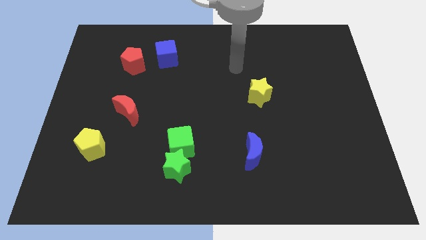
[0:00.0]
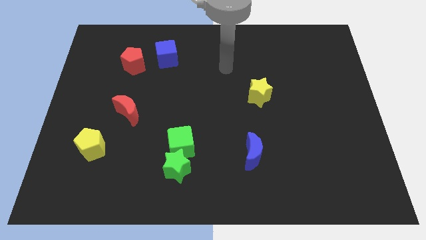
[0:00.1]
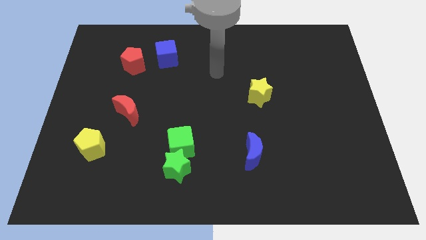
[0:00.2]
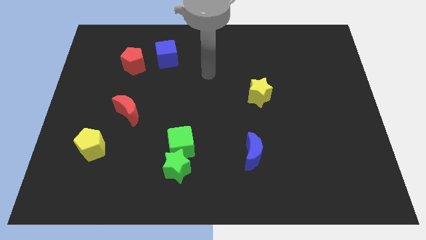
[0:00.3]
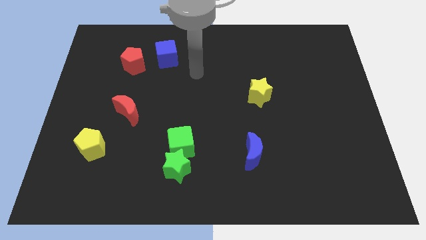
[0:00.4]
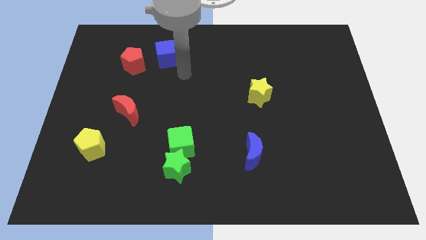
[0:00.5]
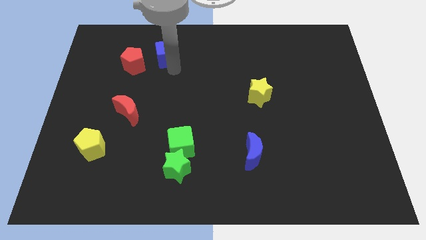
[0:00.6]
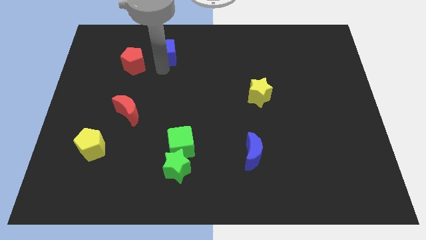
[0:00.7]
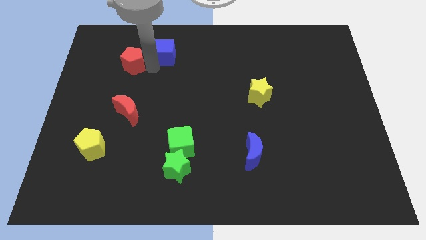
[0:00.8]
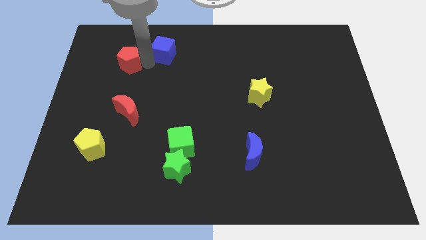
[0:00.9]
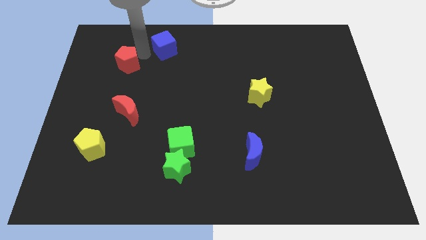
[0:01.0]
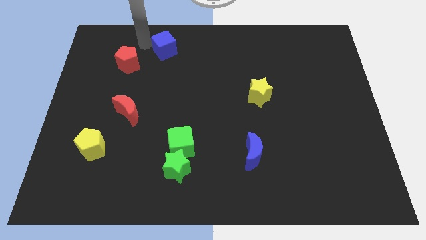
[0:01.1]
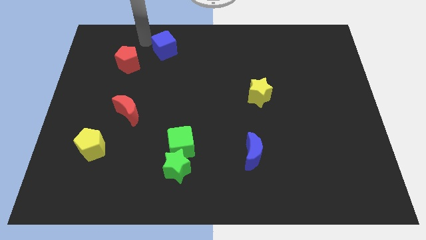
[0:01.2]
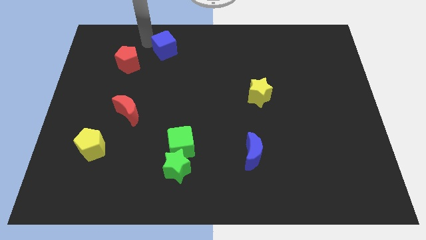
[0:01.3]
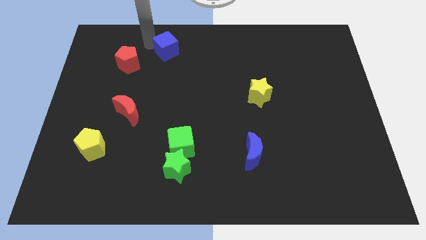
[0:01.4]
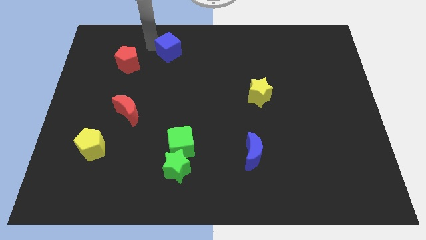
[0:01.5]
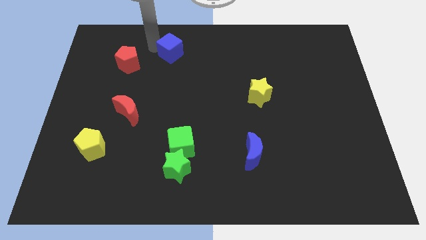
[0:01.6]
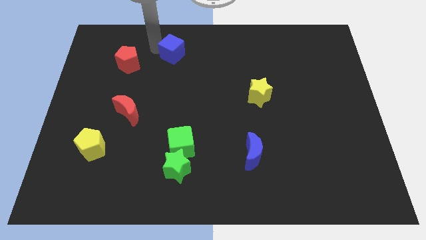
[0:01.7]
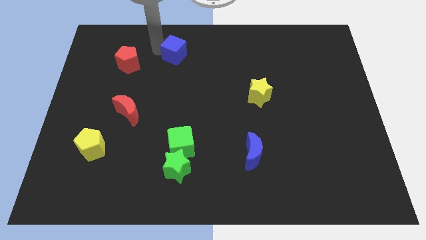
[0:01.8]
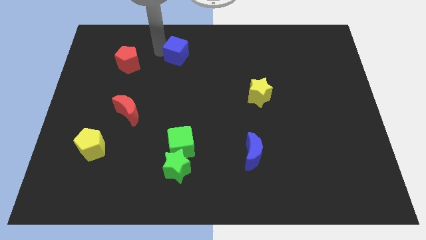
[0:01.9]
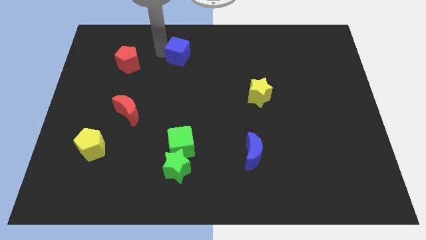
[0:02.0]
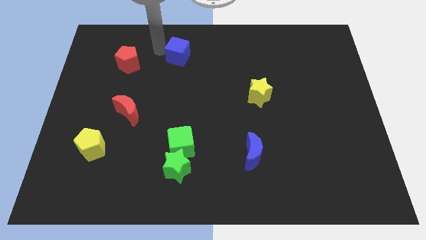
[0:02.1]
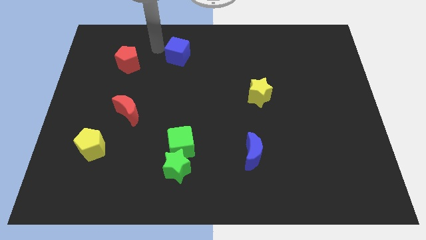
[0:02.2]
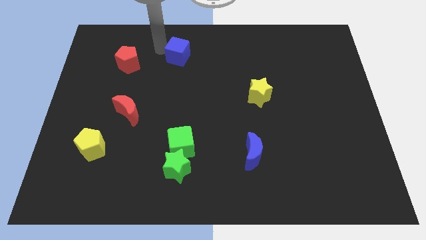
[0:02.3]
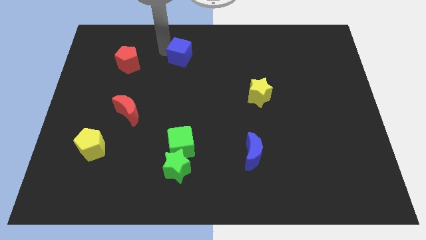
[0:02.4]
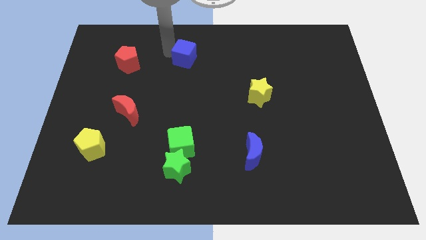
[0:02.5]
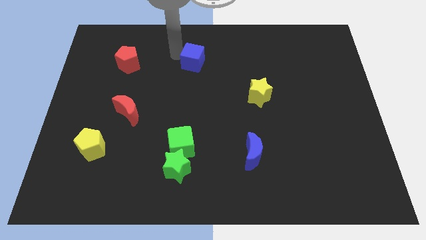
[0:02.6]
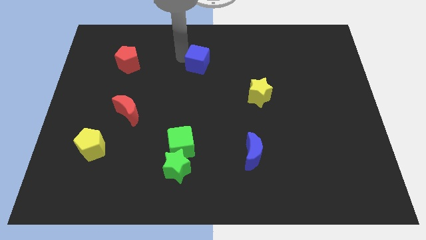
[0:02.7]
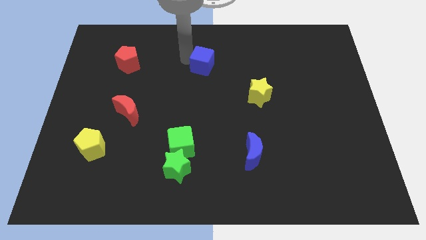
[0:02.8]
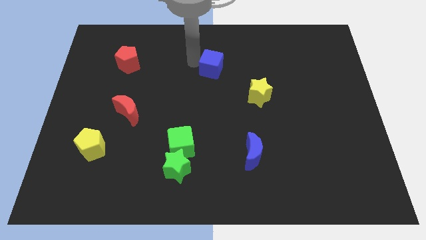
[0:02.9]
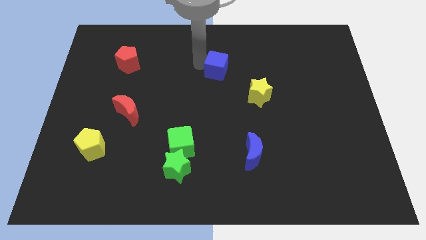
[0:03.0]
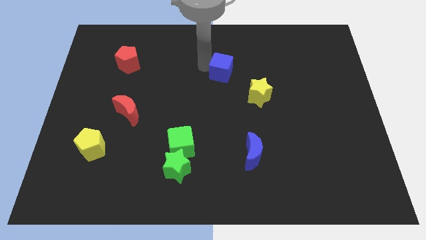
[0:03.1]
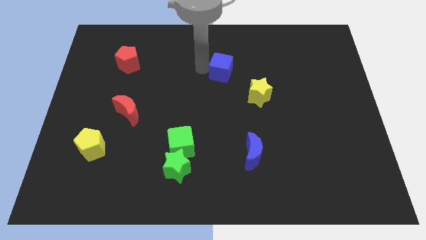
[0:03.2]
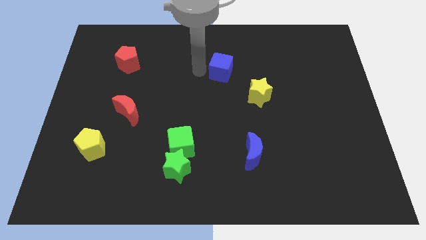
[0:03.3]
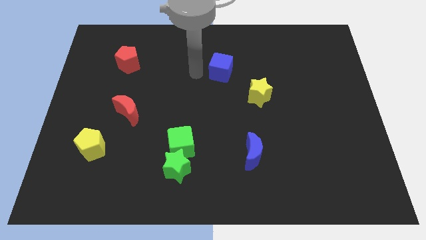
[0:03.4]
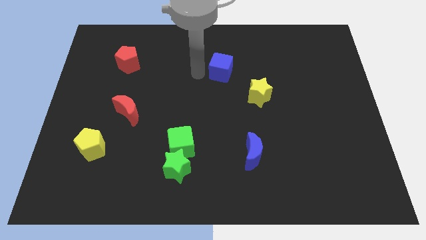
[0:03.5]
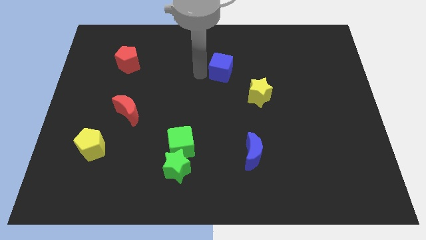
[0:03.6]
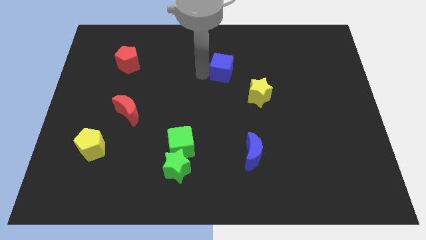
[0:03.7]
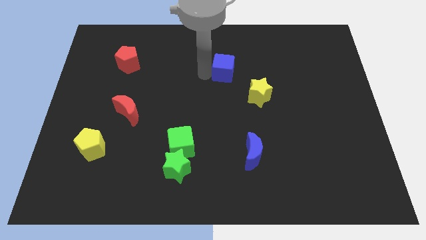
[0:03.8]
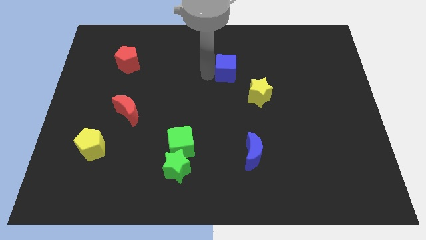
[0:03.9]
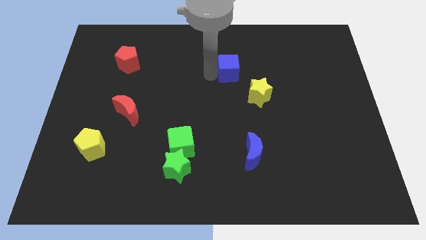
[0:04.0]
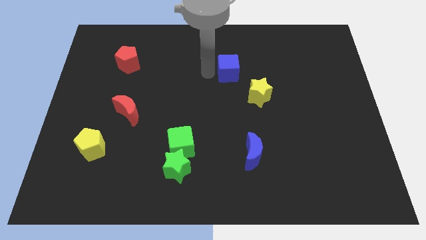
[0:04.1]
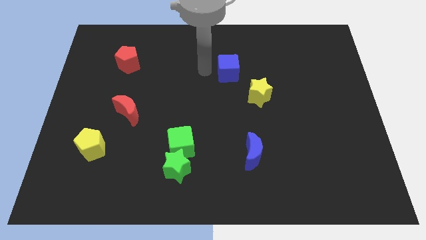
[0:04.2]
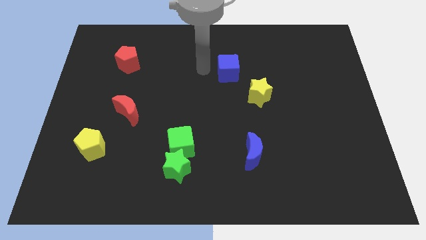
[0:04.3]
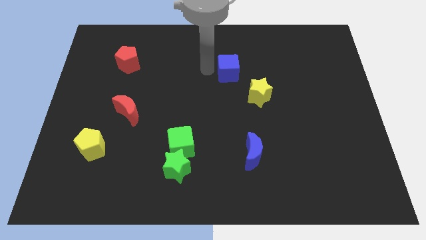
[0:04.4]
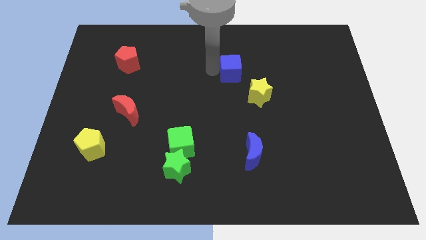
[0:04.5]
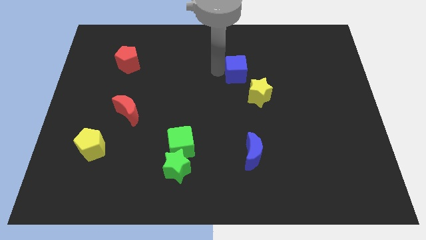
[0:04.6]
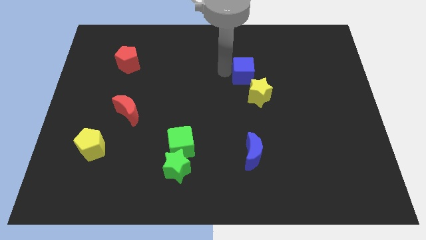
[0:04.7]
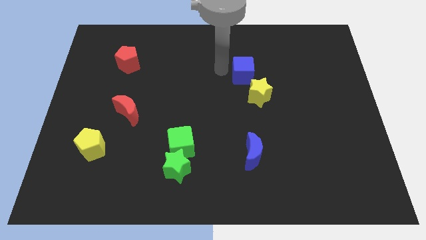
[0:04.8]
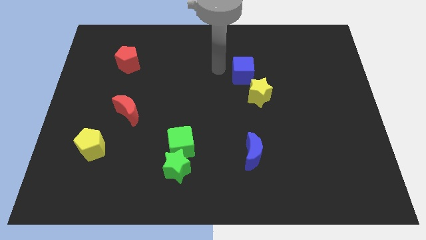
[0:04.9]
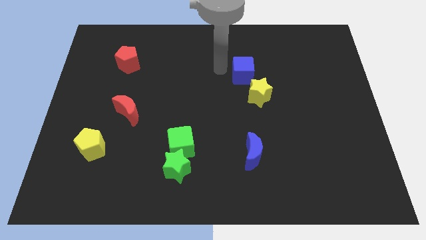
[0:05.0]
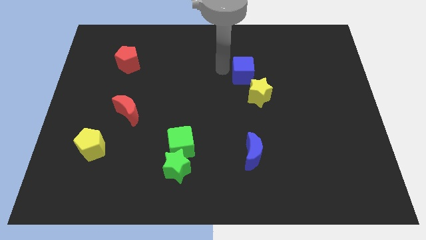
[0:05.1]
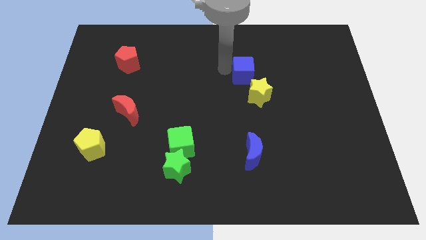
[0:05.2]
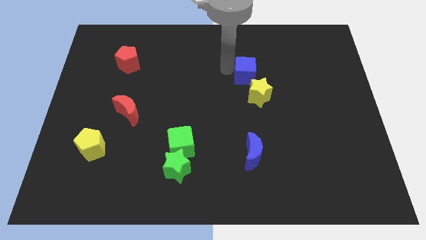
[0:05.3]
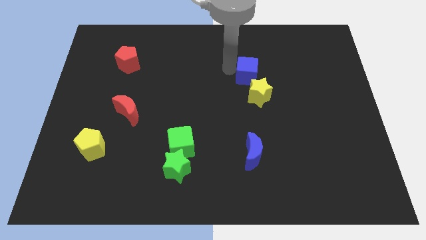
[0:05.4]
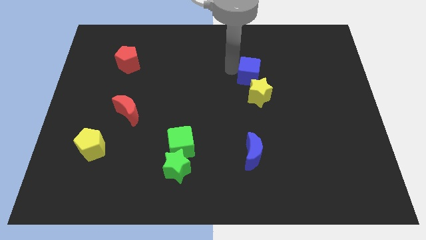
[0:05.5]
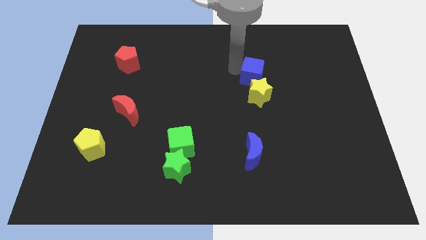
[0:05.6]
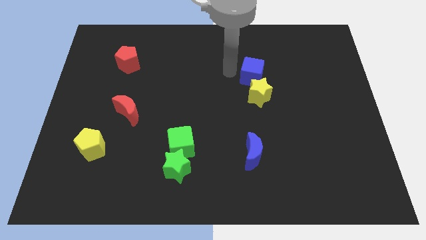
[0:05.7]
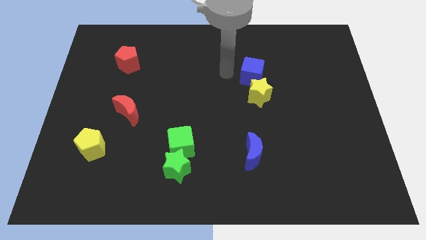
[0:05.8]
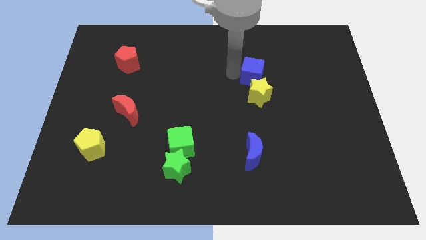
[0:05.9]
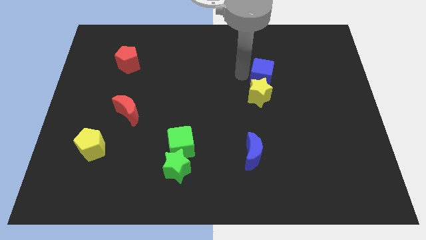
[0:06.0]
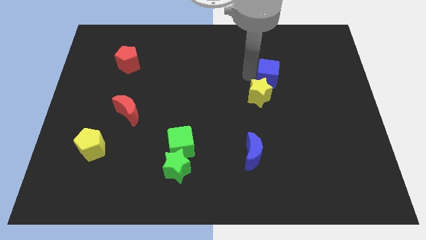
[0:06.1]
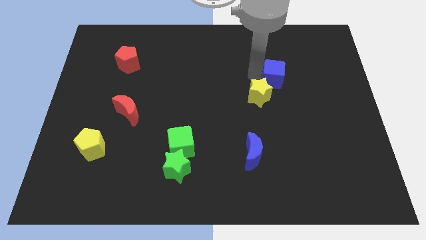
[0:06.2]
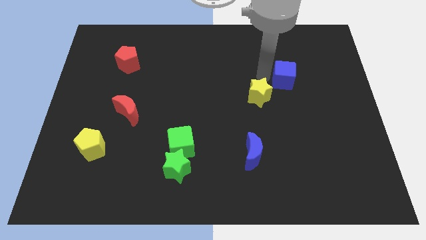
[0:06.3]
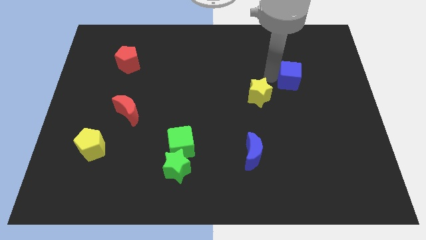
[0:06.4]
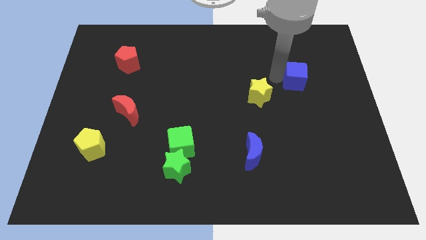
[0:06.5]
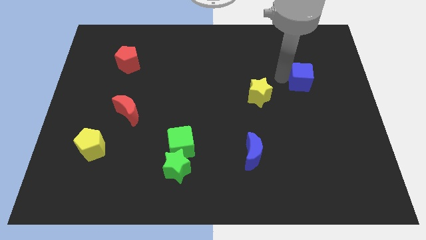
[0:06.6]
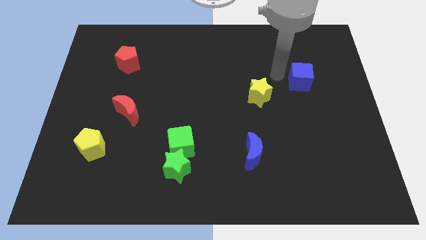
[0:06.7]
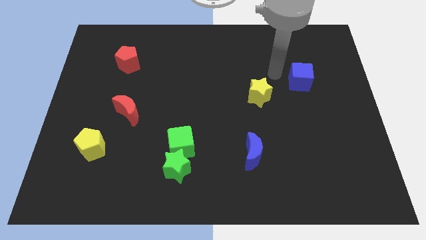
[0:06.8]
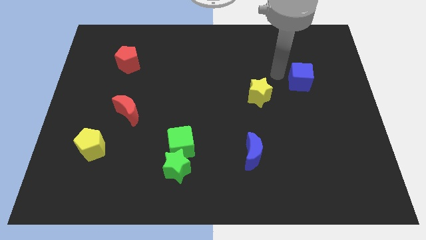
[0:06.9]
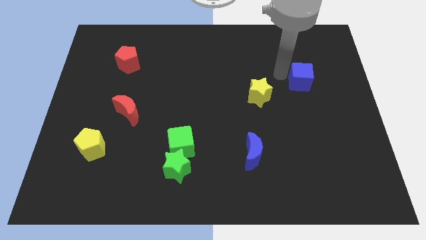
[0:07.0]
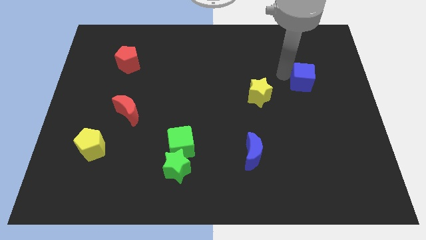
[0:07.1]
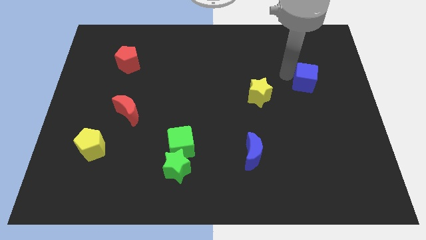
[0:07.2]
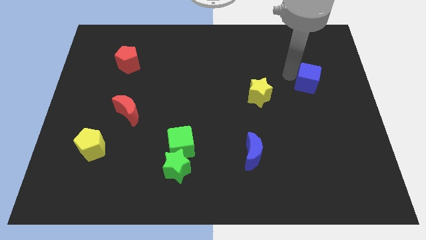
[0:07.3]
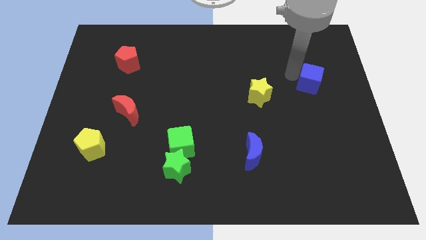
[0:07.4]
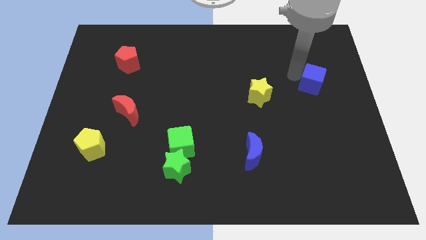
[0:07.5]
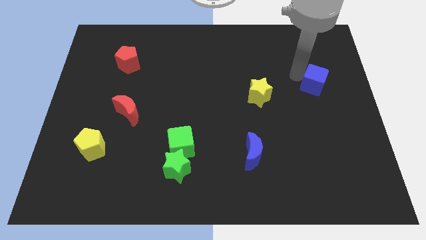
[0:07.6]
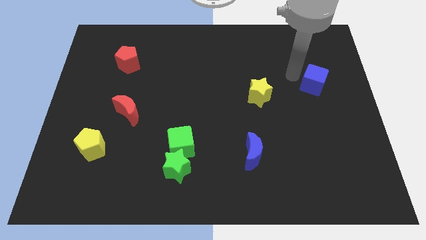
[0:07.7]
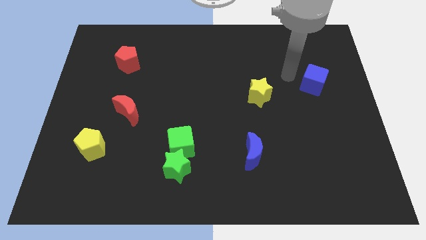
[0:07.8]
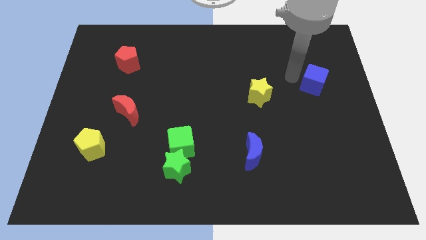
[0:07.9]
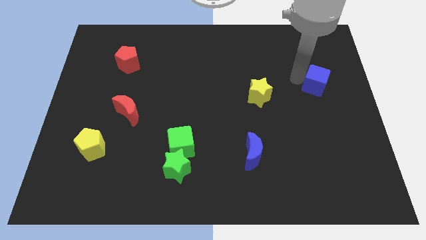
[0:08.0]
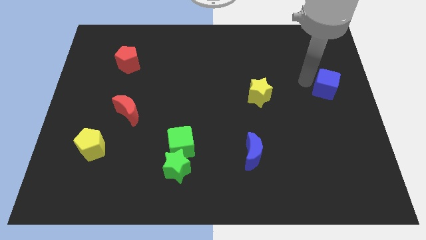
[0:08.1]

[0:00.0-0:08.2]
move the blue cube to the center right
